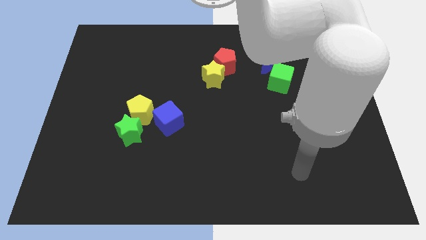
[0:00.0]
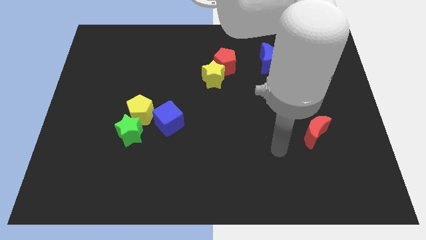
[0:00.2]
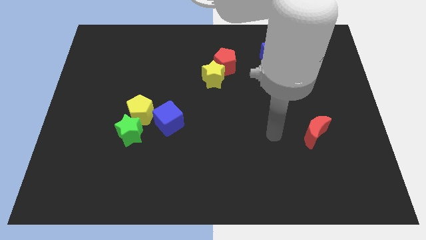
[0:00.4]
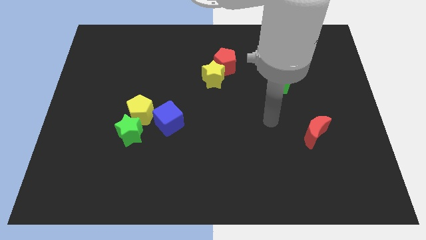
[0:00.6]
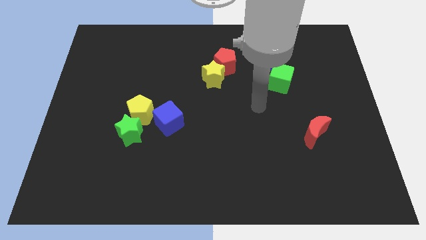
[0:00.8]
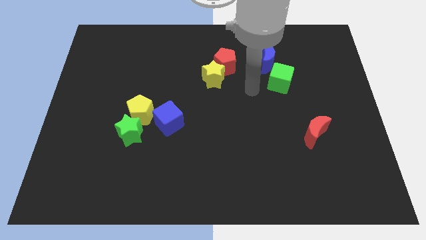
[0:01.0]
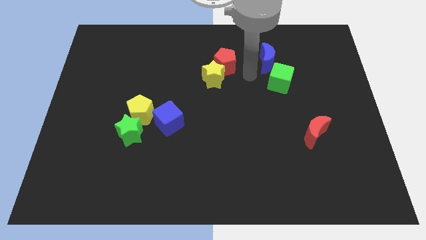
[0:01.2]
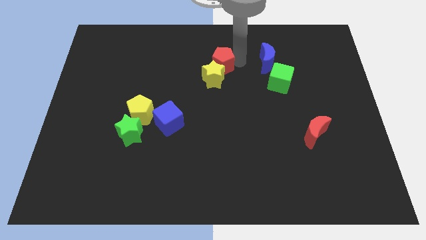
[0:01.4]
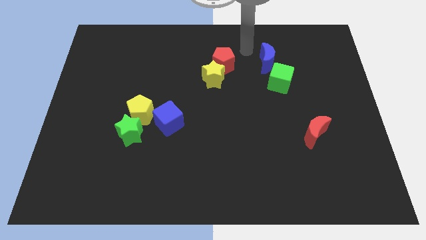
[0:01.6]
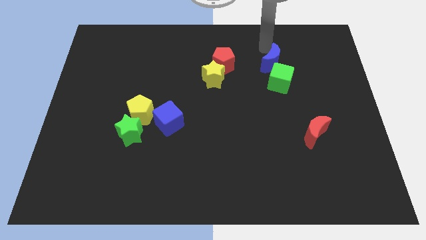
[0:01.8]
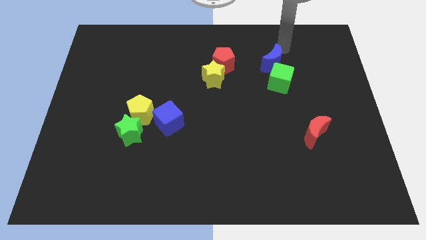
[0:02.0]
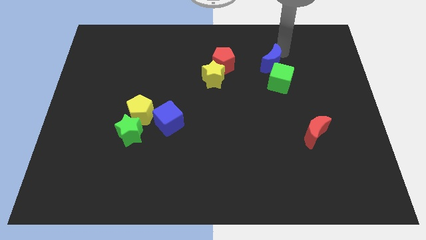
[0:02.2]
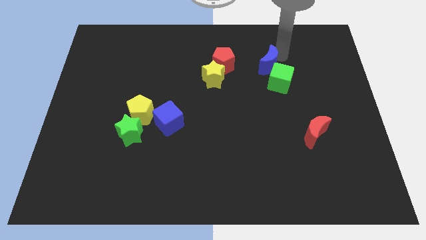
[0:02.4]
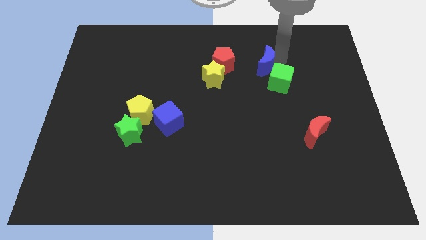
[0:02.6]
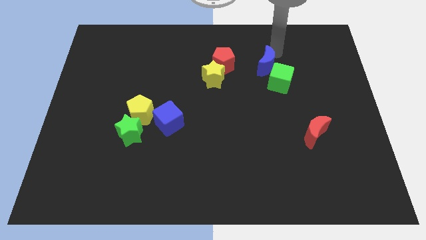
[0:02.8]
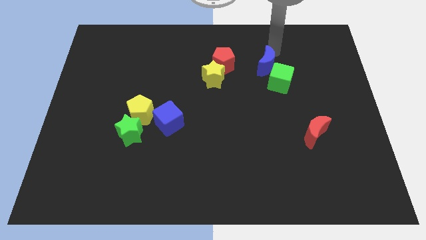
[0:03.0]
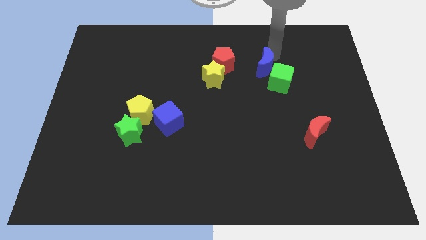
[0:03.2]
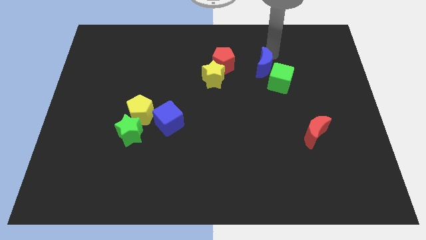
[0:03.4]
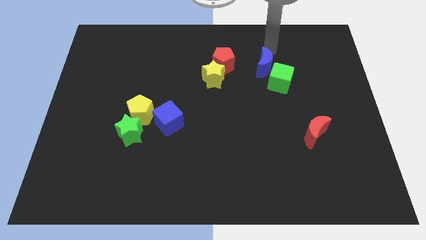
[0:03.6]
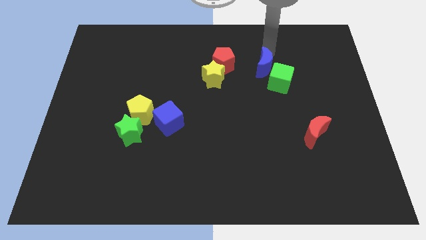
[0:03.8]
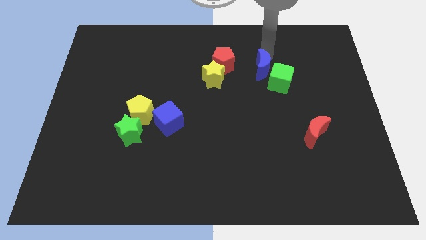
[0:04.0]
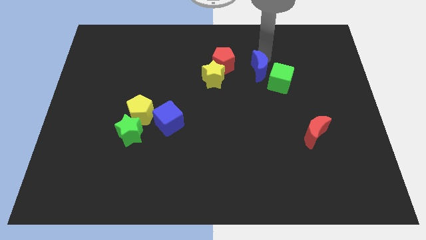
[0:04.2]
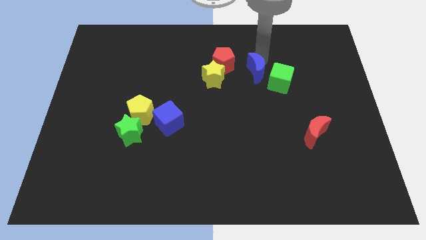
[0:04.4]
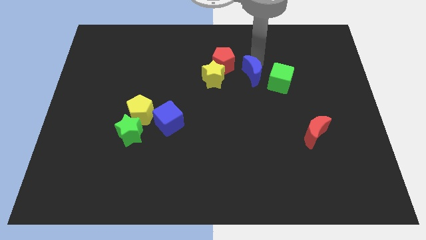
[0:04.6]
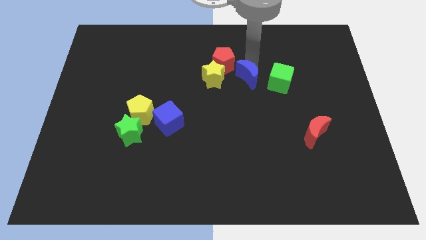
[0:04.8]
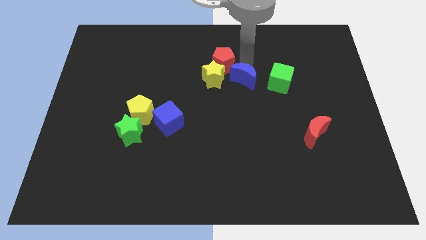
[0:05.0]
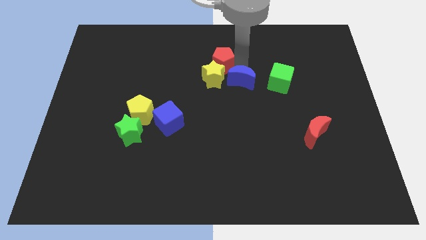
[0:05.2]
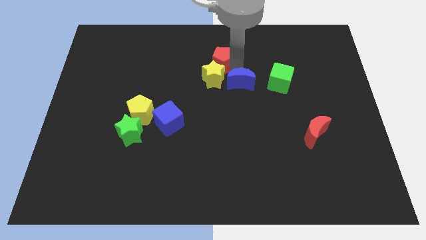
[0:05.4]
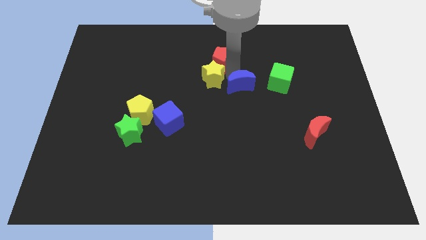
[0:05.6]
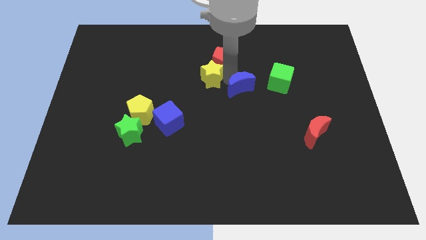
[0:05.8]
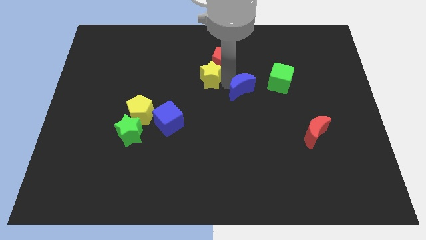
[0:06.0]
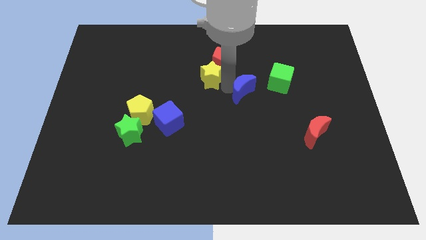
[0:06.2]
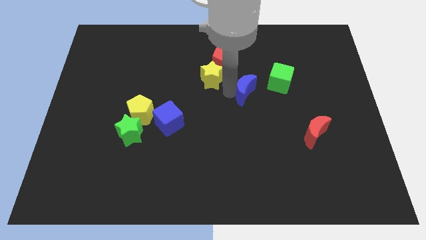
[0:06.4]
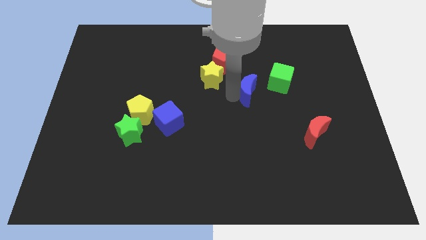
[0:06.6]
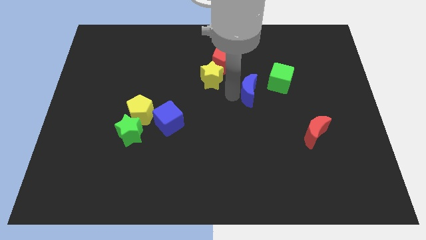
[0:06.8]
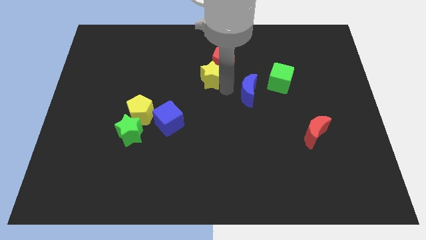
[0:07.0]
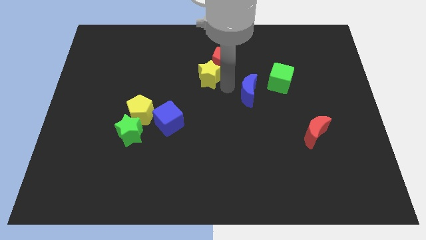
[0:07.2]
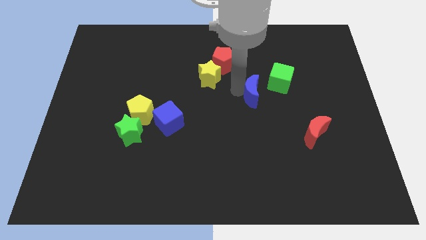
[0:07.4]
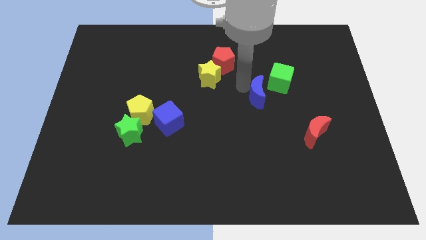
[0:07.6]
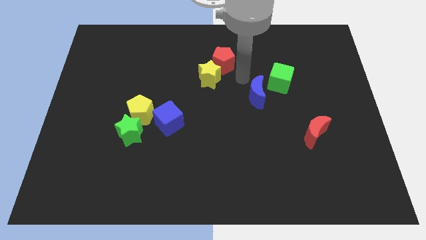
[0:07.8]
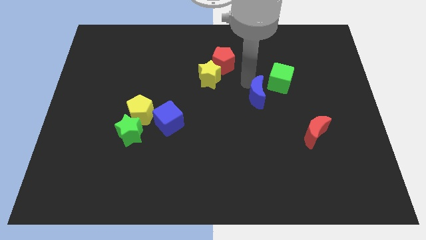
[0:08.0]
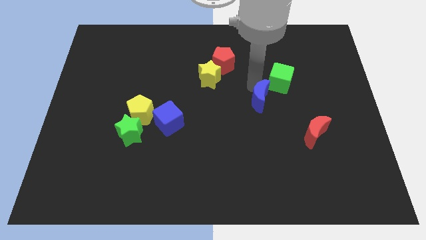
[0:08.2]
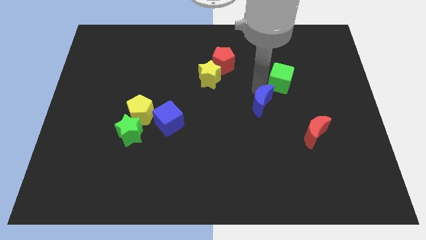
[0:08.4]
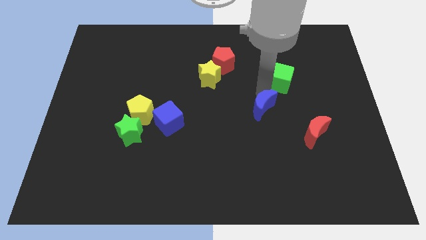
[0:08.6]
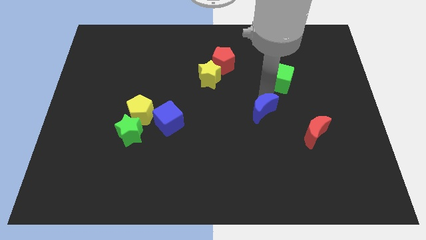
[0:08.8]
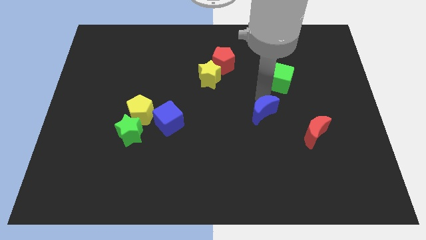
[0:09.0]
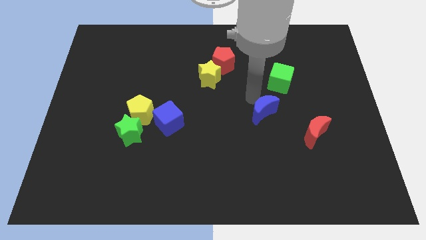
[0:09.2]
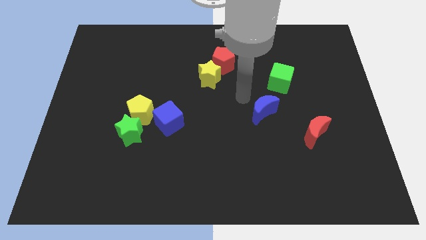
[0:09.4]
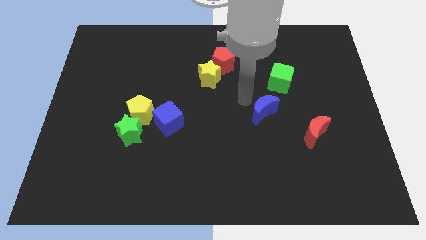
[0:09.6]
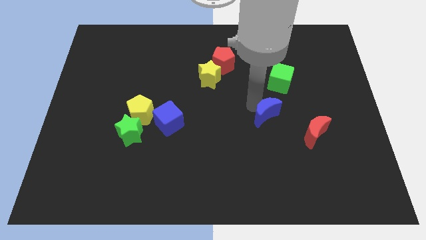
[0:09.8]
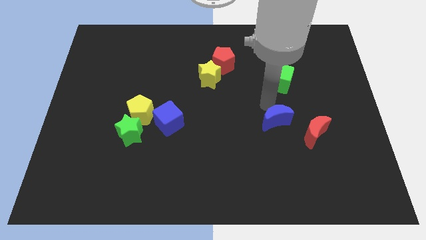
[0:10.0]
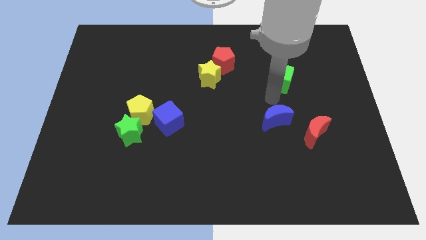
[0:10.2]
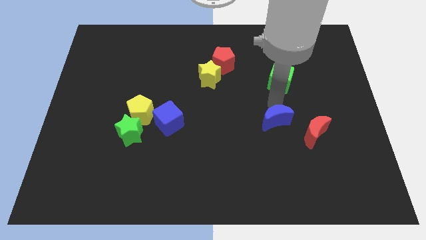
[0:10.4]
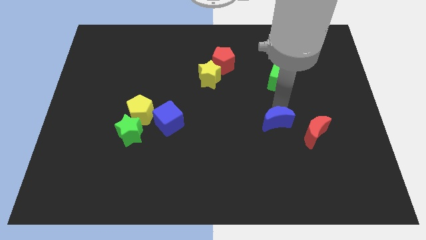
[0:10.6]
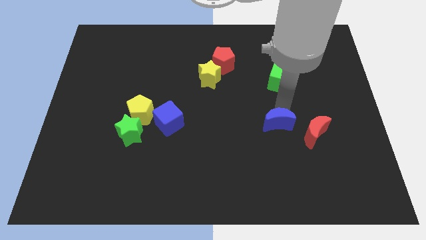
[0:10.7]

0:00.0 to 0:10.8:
slide the blue moon downwards

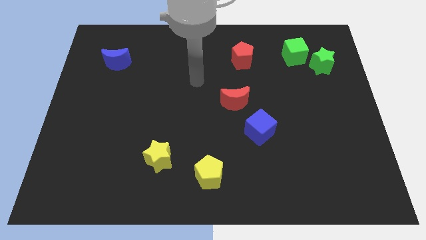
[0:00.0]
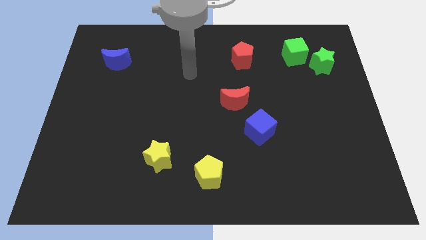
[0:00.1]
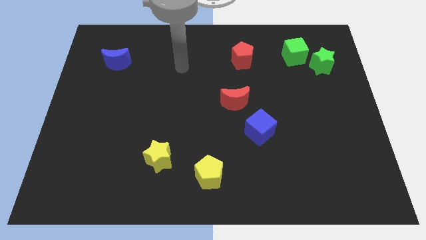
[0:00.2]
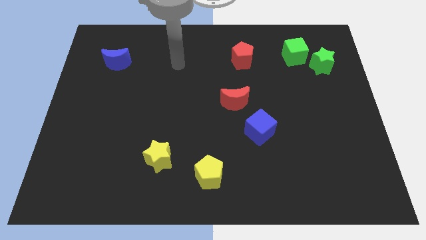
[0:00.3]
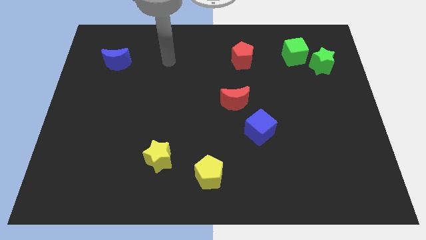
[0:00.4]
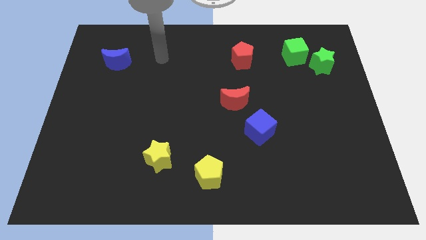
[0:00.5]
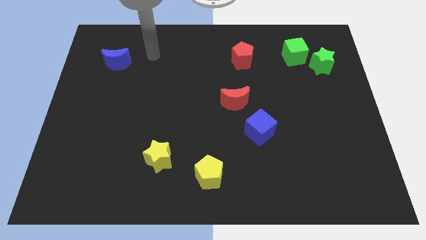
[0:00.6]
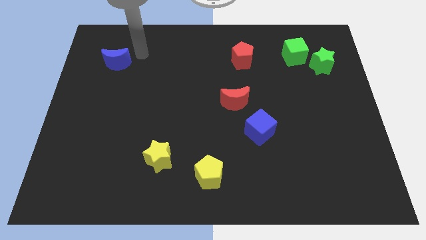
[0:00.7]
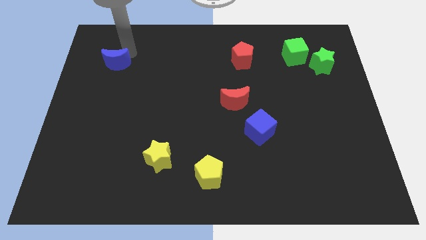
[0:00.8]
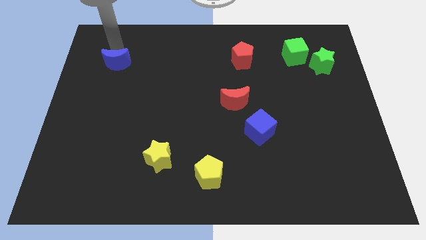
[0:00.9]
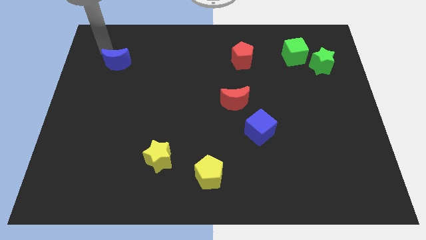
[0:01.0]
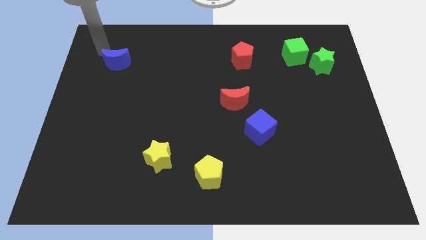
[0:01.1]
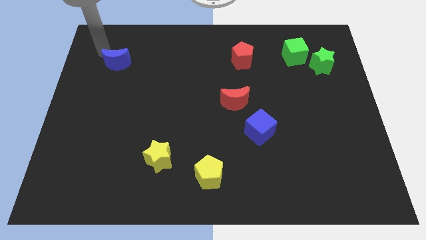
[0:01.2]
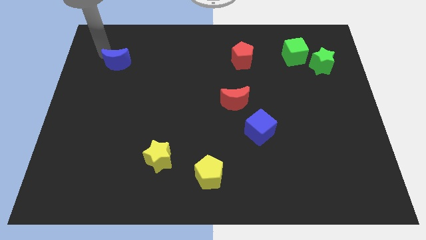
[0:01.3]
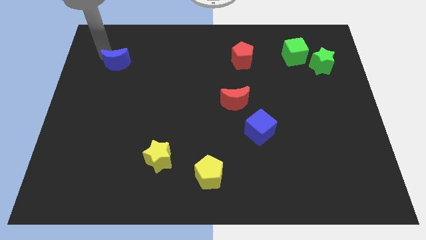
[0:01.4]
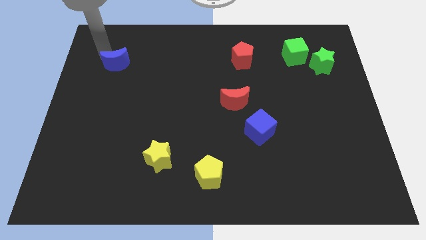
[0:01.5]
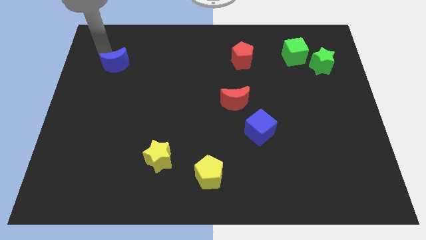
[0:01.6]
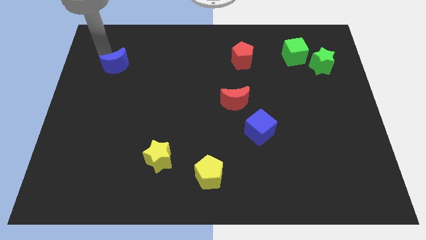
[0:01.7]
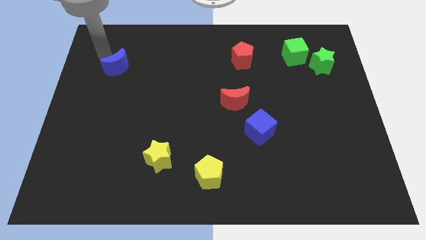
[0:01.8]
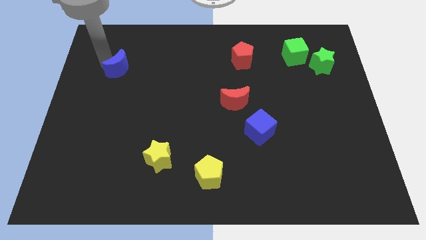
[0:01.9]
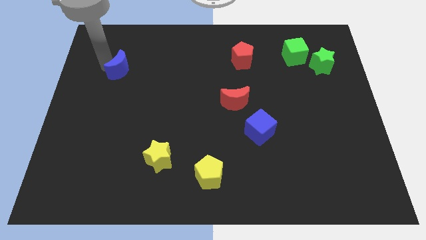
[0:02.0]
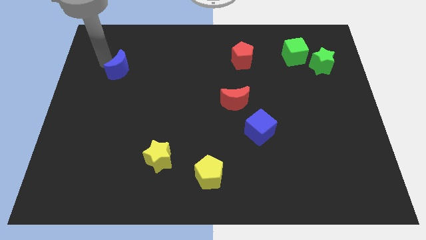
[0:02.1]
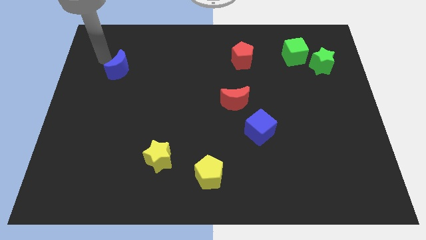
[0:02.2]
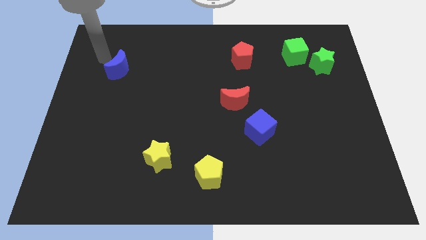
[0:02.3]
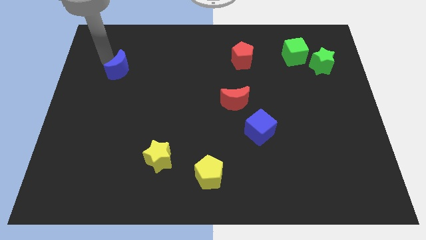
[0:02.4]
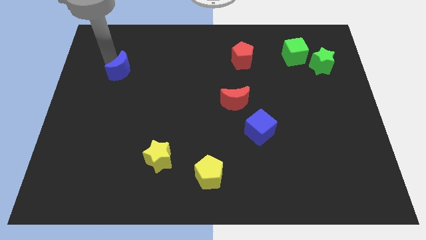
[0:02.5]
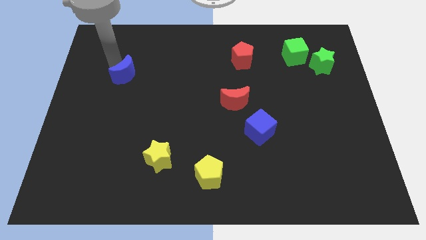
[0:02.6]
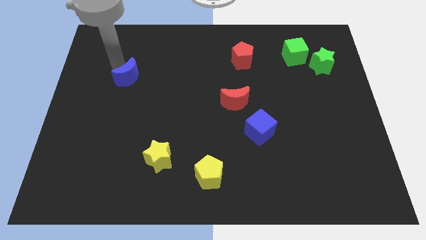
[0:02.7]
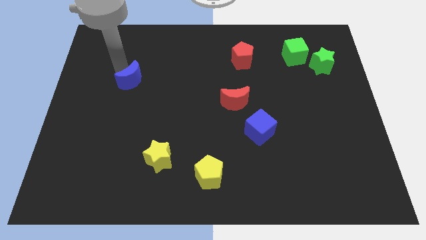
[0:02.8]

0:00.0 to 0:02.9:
move the blue moon diagonally down and to the right somewhat
